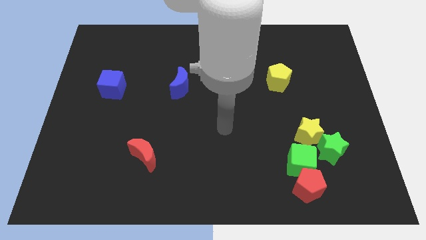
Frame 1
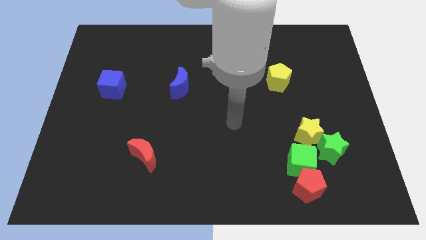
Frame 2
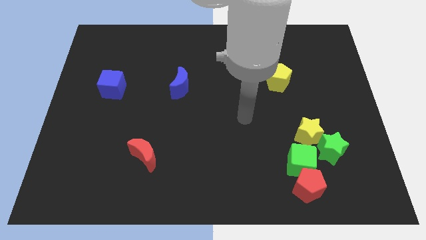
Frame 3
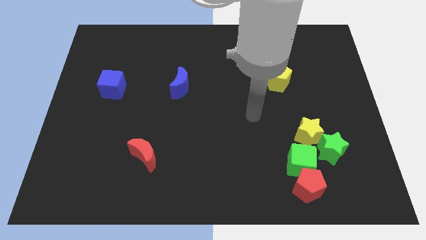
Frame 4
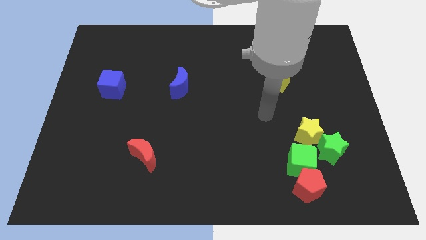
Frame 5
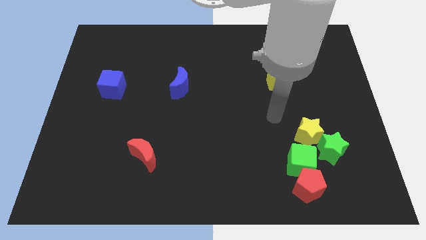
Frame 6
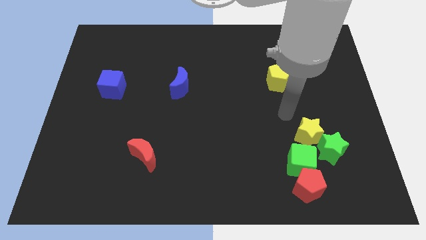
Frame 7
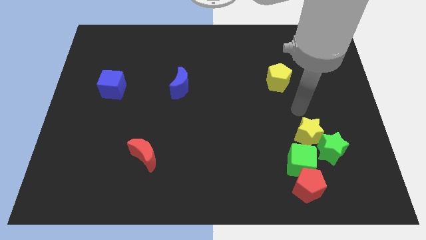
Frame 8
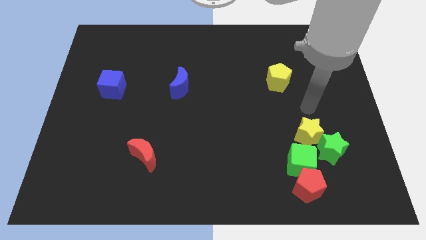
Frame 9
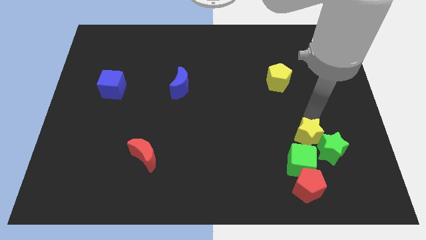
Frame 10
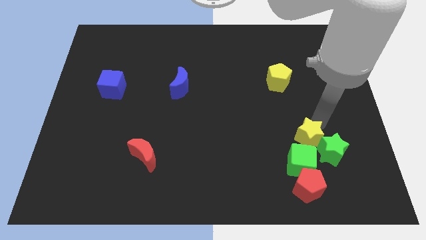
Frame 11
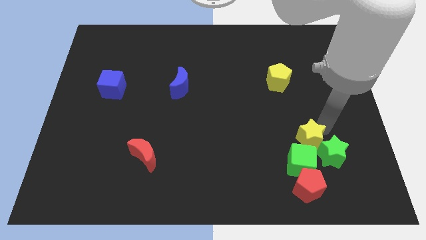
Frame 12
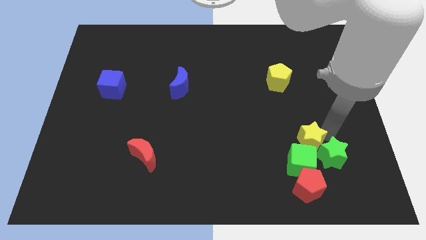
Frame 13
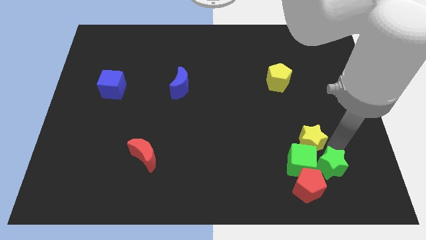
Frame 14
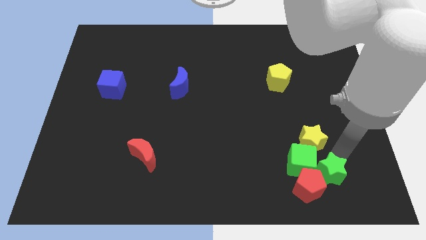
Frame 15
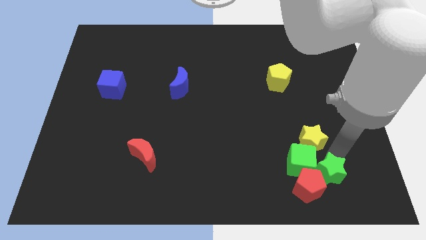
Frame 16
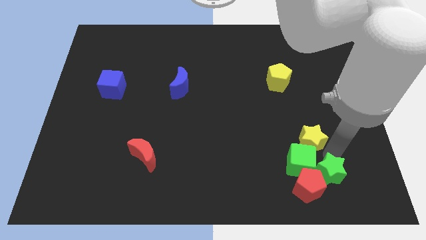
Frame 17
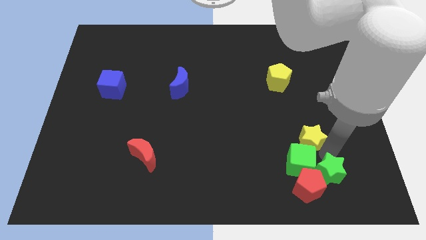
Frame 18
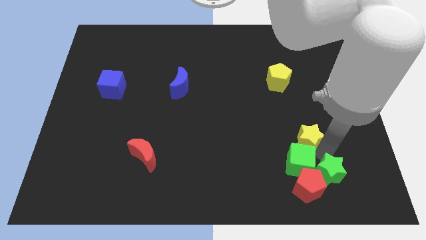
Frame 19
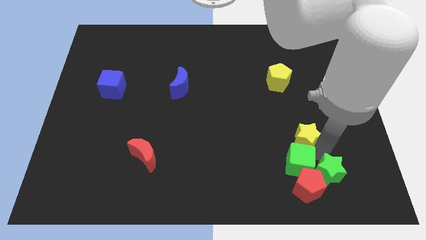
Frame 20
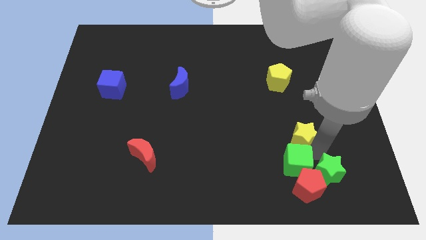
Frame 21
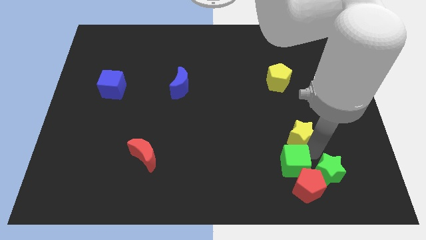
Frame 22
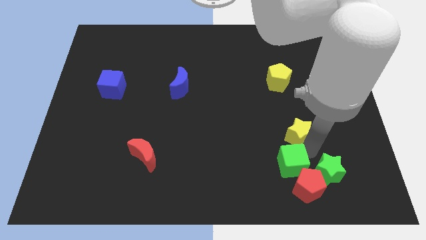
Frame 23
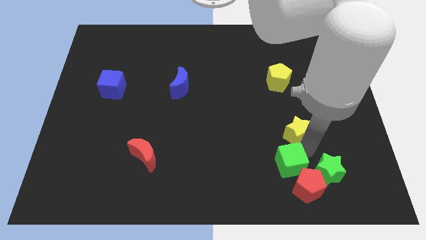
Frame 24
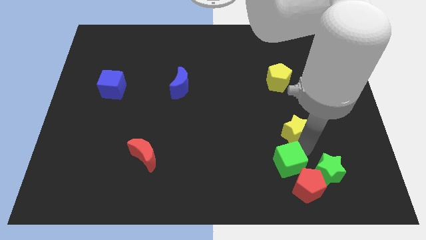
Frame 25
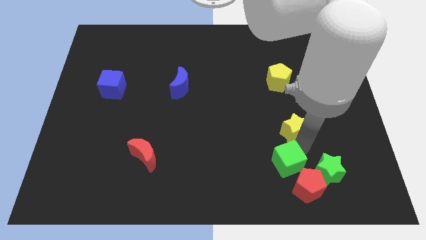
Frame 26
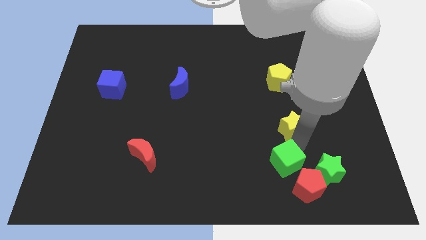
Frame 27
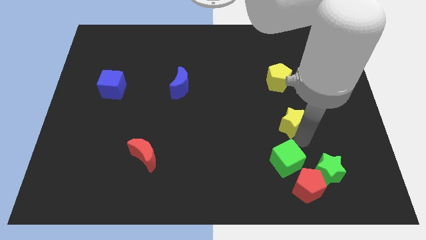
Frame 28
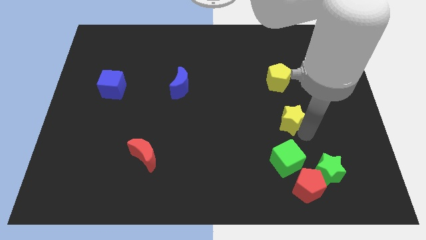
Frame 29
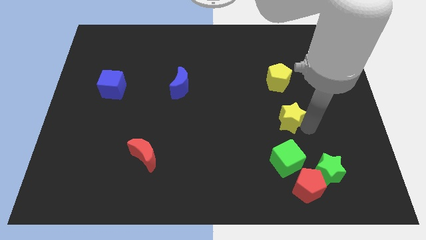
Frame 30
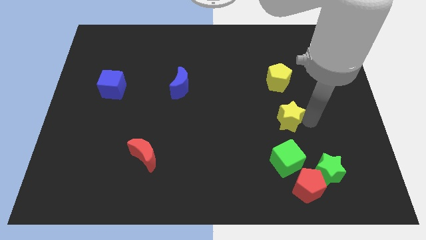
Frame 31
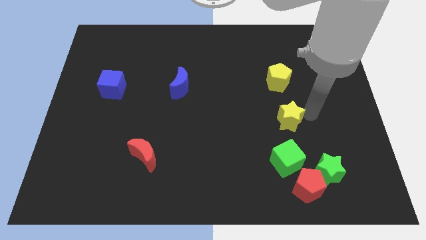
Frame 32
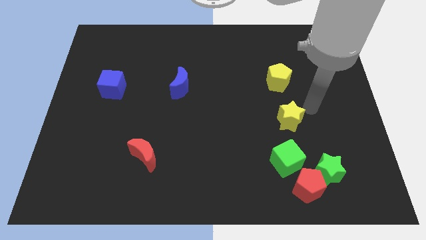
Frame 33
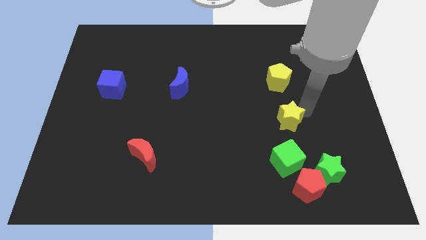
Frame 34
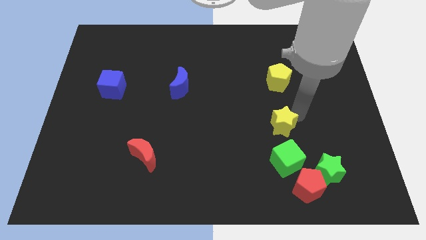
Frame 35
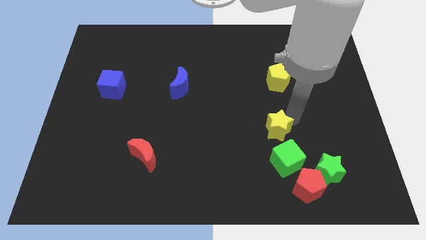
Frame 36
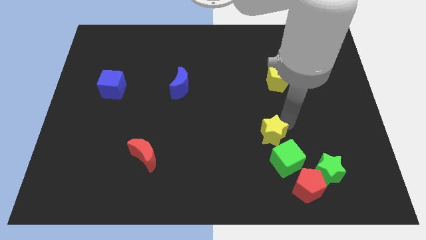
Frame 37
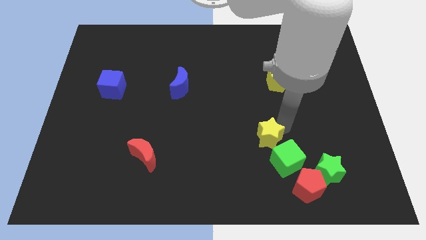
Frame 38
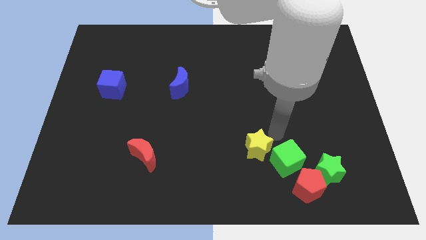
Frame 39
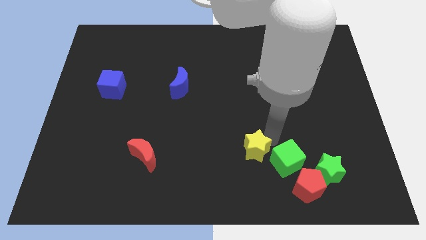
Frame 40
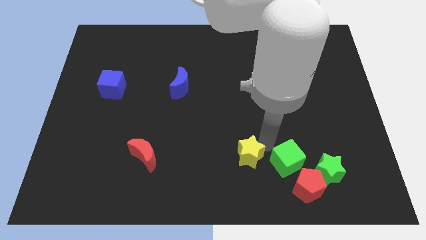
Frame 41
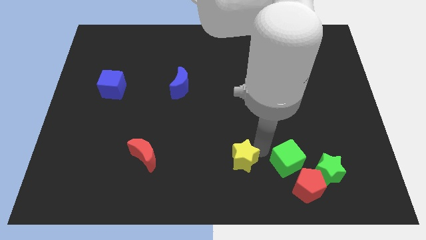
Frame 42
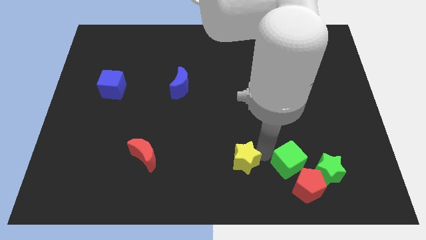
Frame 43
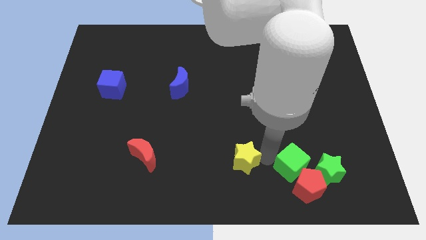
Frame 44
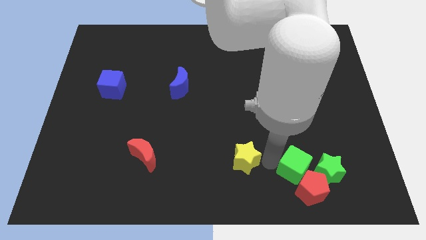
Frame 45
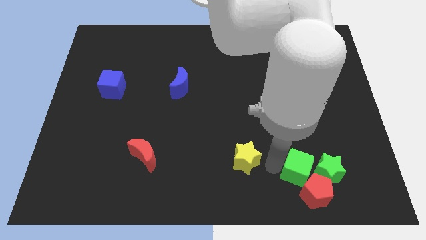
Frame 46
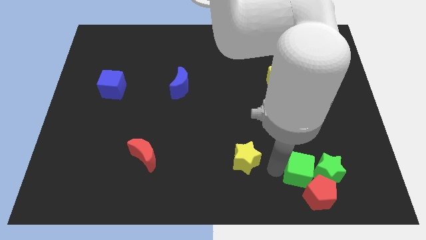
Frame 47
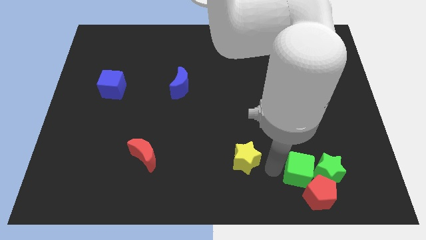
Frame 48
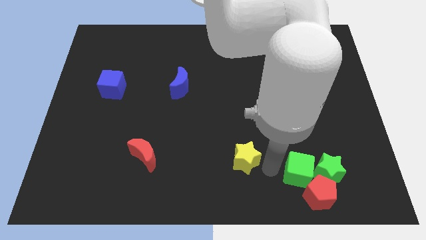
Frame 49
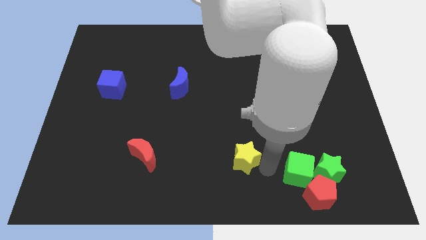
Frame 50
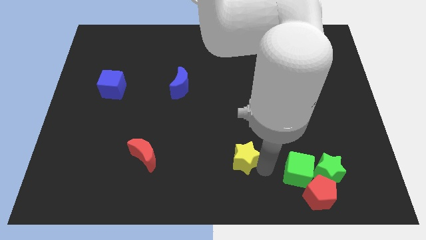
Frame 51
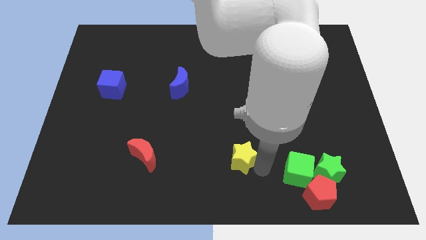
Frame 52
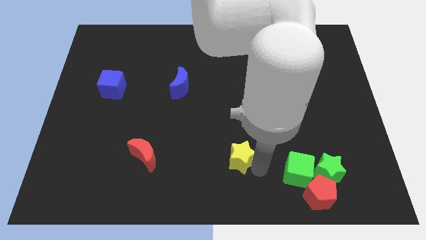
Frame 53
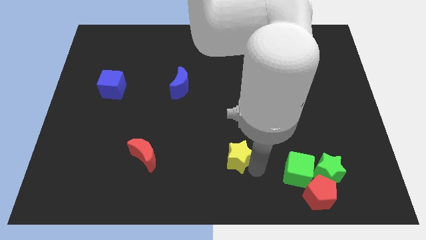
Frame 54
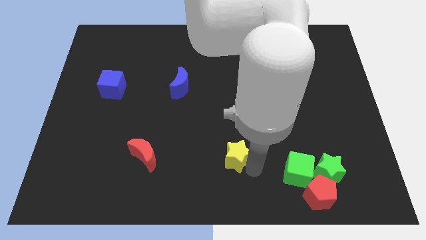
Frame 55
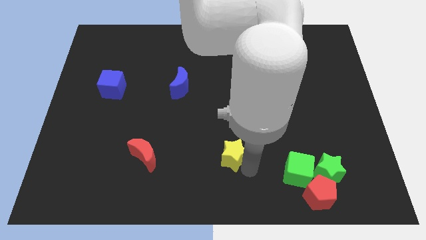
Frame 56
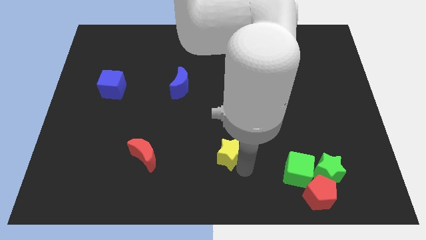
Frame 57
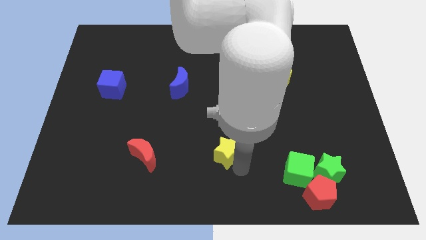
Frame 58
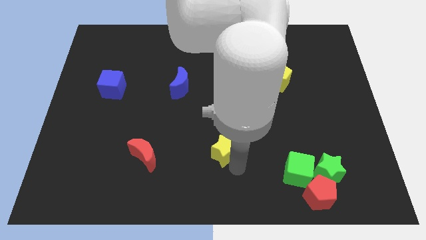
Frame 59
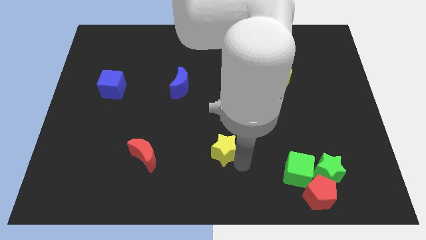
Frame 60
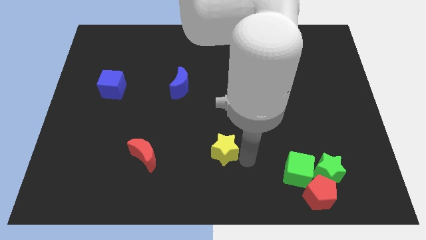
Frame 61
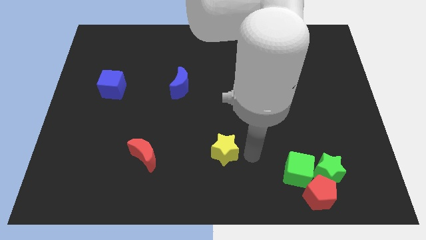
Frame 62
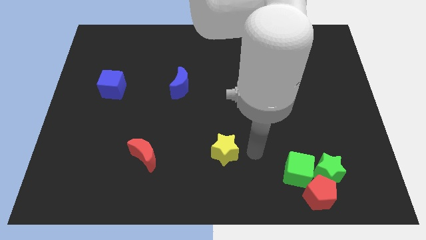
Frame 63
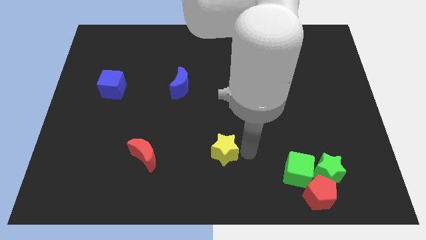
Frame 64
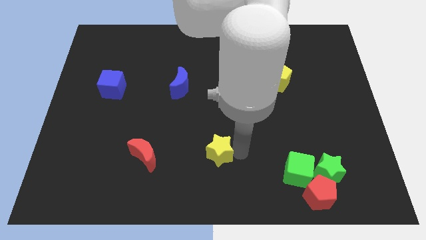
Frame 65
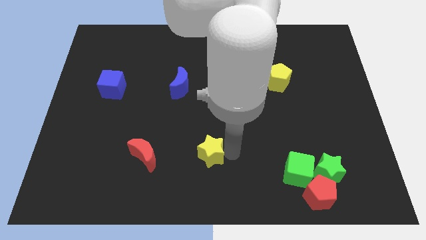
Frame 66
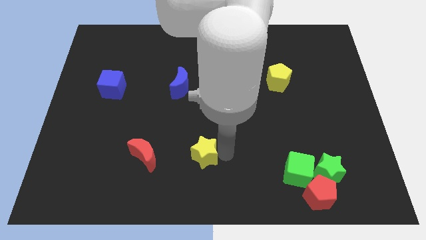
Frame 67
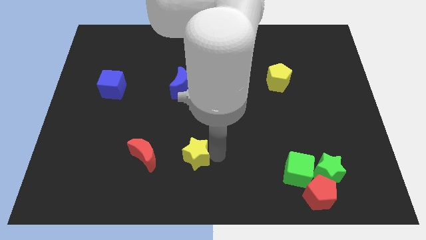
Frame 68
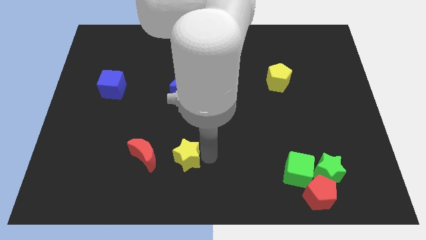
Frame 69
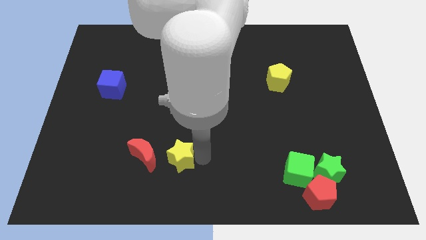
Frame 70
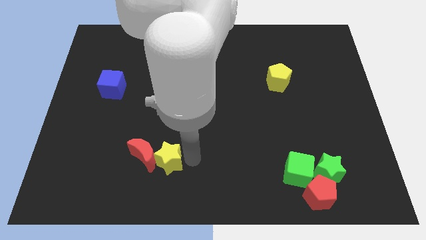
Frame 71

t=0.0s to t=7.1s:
put the yellow star towards the red moon
